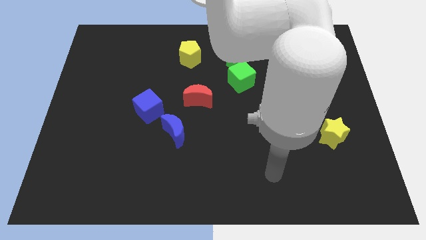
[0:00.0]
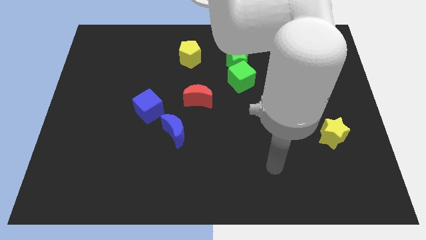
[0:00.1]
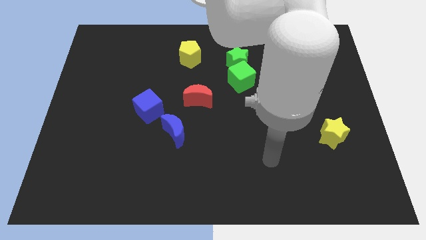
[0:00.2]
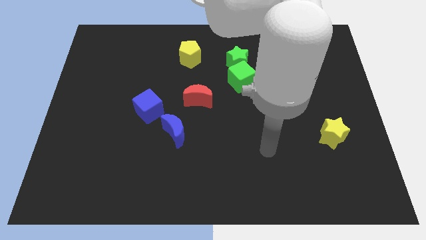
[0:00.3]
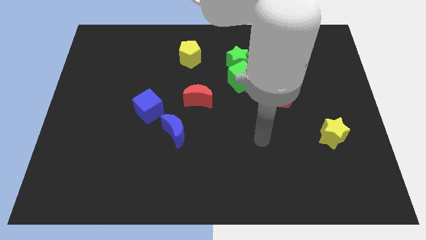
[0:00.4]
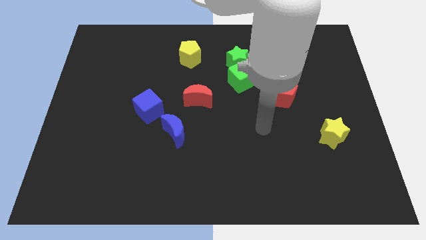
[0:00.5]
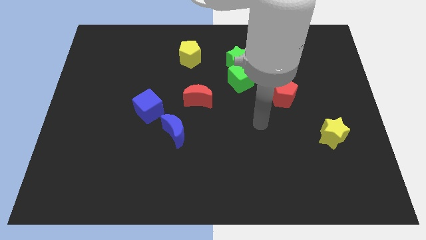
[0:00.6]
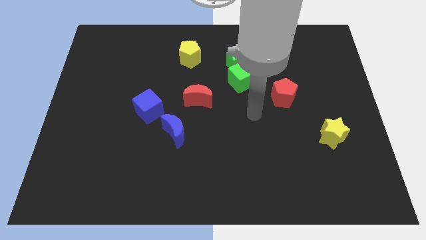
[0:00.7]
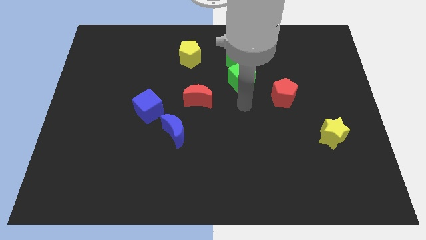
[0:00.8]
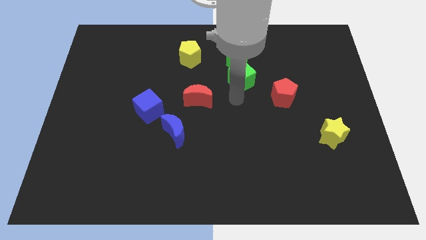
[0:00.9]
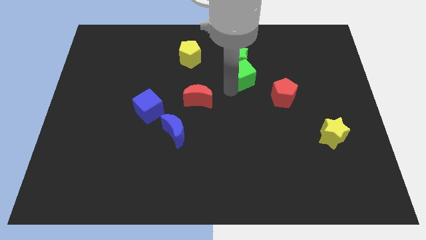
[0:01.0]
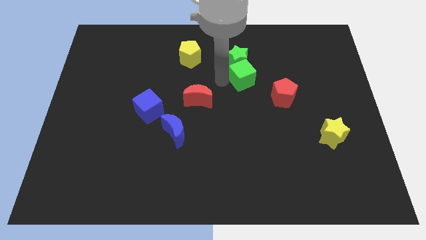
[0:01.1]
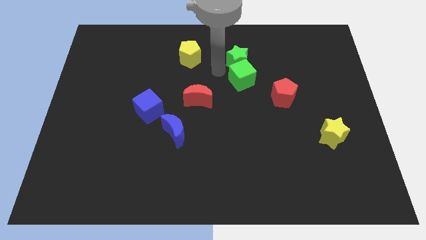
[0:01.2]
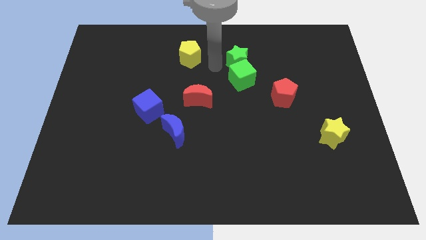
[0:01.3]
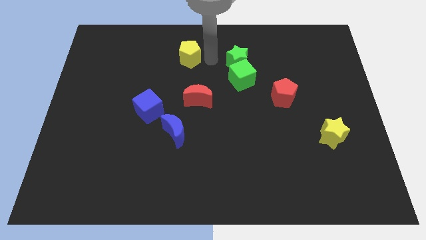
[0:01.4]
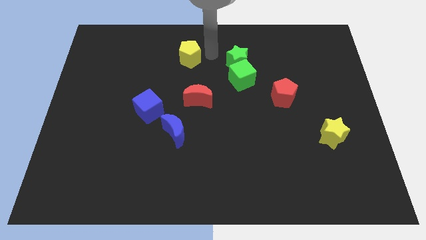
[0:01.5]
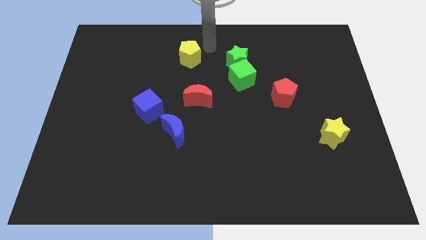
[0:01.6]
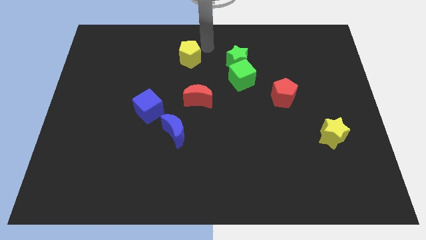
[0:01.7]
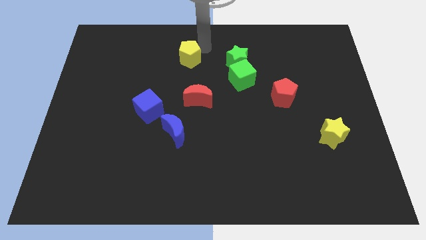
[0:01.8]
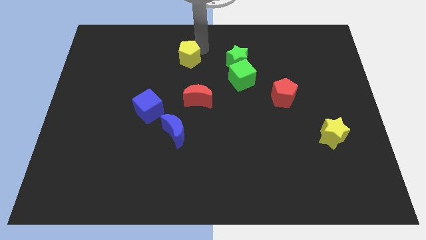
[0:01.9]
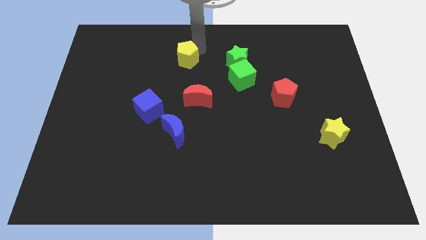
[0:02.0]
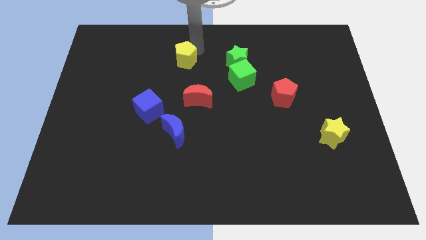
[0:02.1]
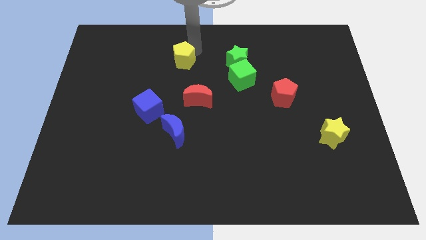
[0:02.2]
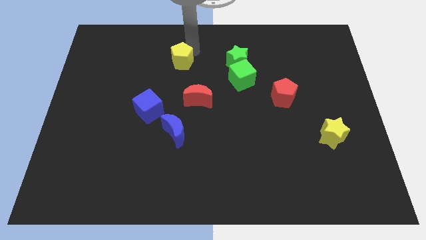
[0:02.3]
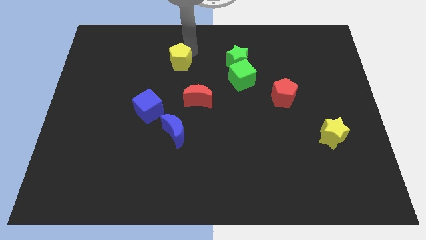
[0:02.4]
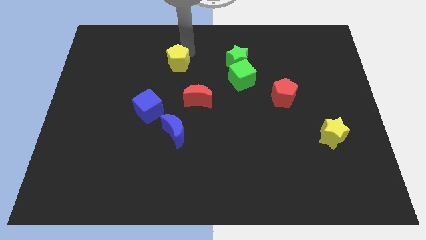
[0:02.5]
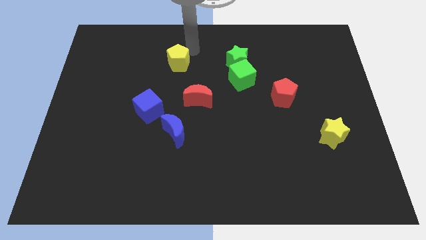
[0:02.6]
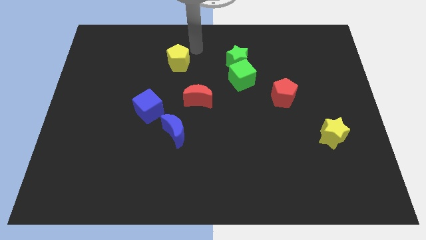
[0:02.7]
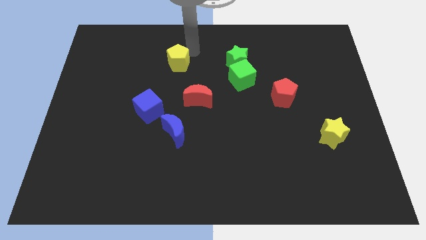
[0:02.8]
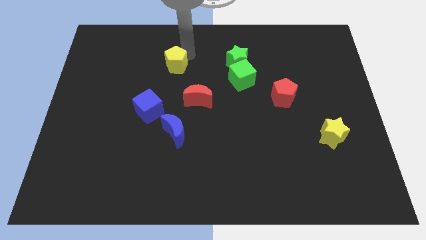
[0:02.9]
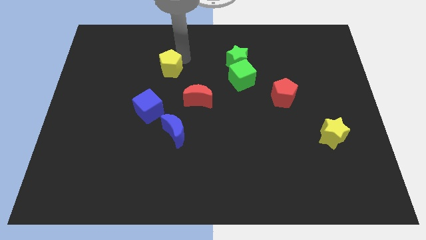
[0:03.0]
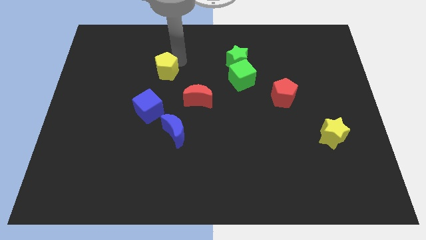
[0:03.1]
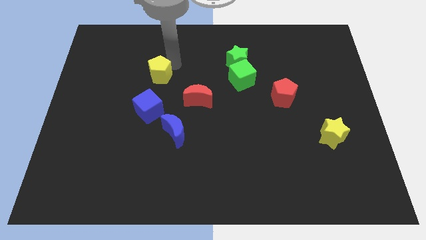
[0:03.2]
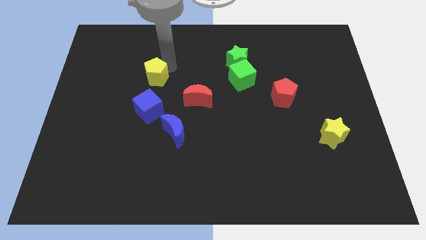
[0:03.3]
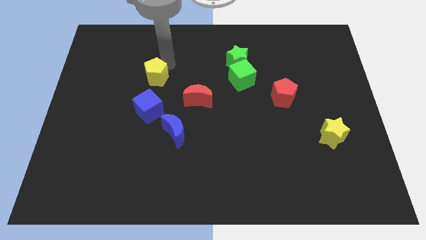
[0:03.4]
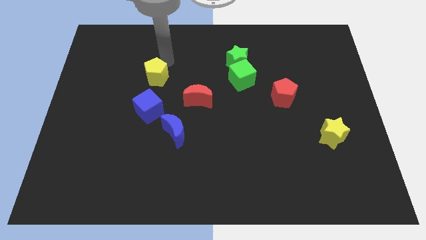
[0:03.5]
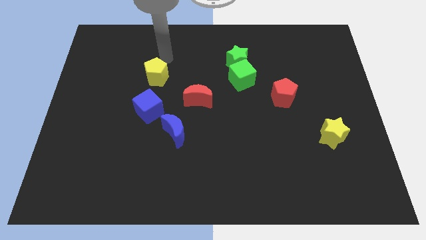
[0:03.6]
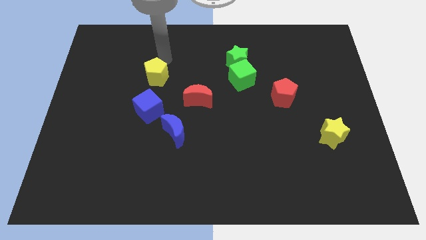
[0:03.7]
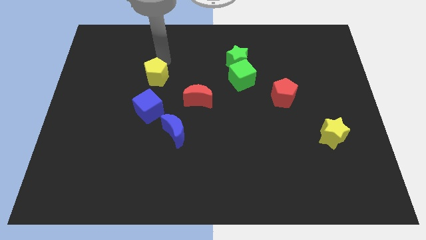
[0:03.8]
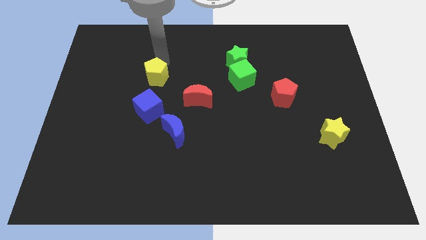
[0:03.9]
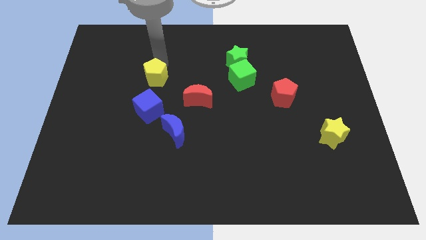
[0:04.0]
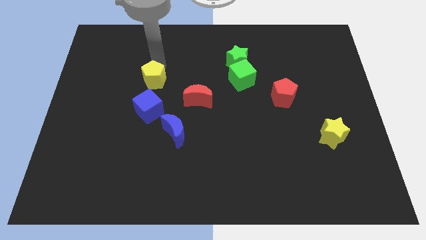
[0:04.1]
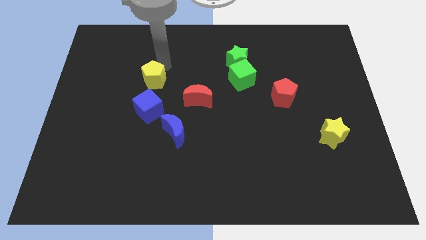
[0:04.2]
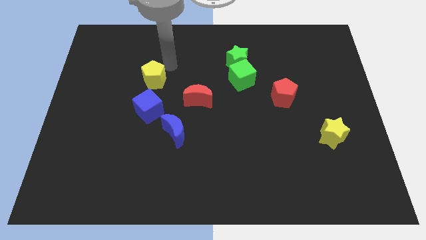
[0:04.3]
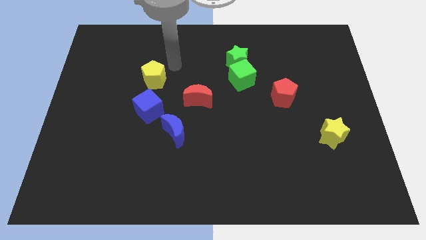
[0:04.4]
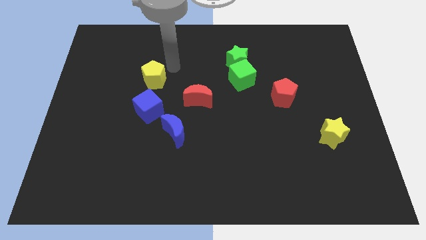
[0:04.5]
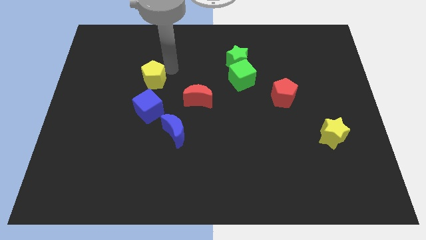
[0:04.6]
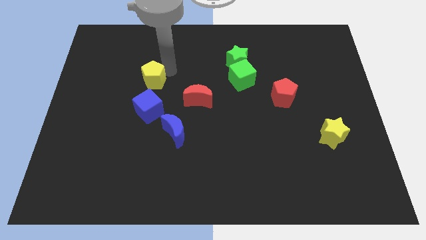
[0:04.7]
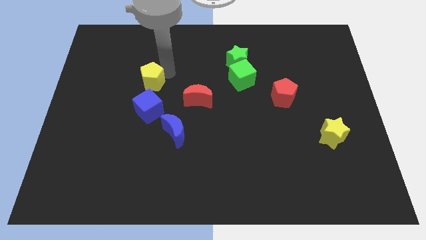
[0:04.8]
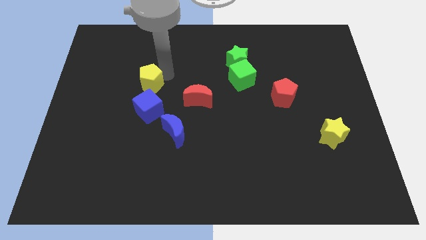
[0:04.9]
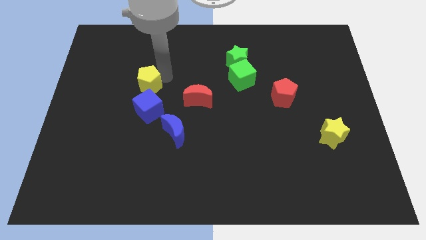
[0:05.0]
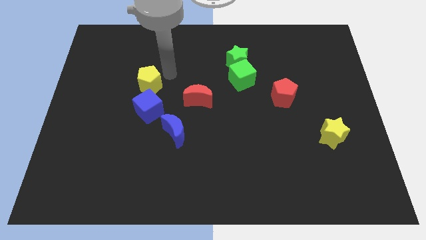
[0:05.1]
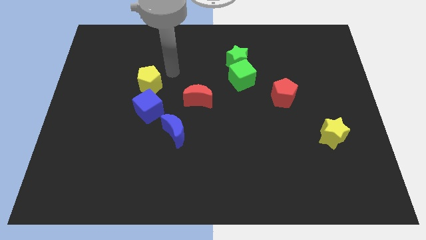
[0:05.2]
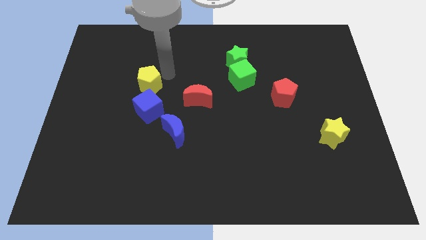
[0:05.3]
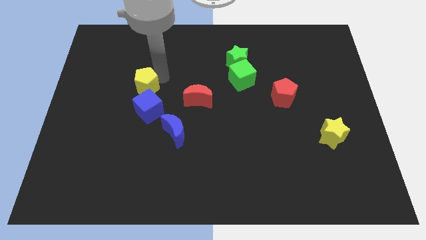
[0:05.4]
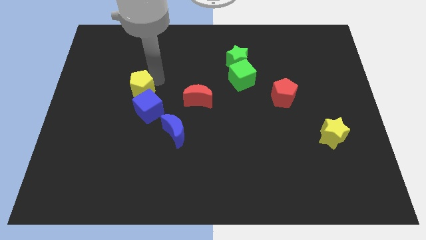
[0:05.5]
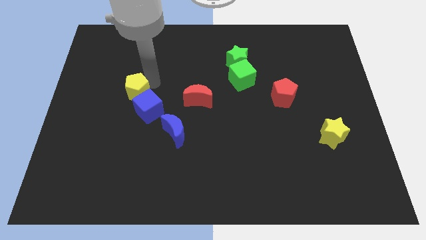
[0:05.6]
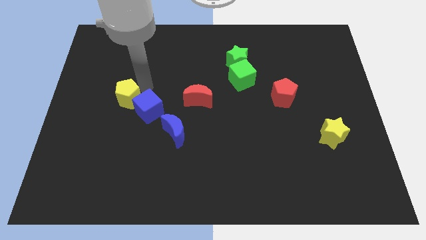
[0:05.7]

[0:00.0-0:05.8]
move the yellow pentagon downwards and left

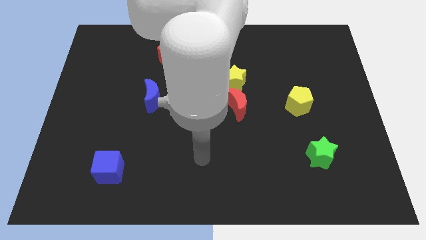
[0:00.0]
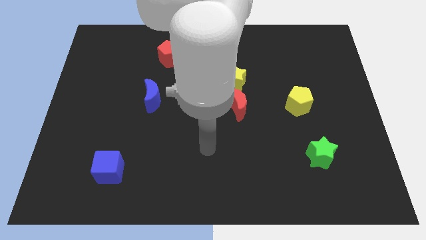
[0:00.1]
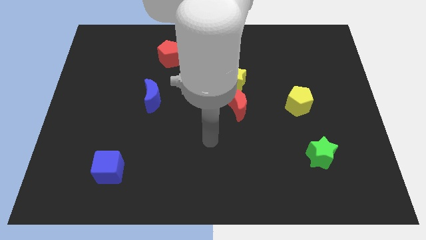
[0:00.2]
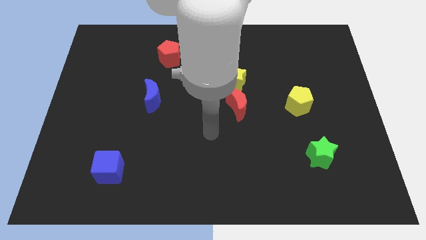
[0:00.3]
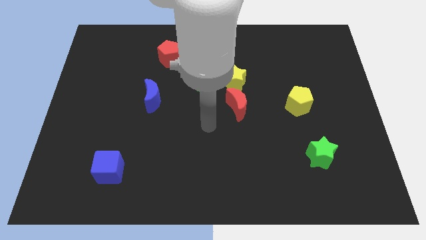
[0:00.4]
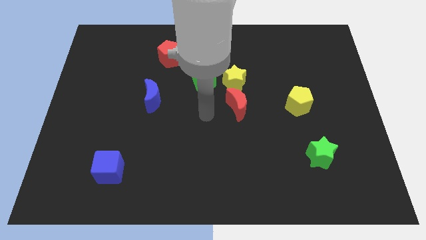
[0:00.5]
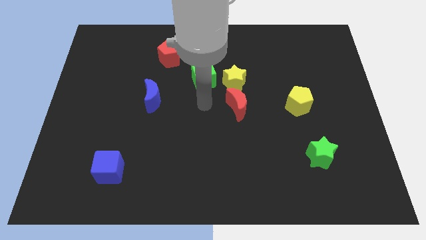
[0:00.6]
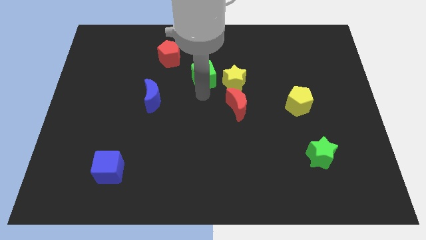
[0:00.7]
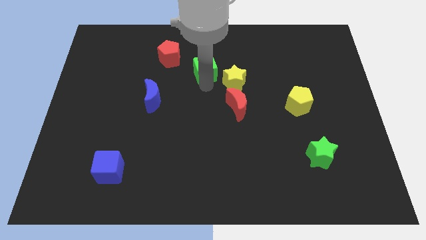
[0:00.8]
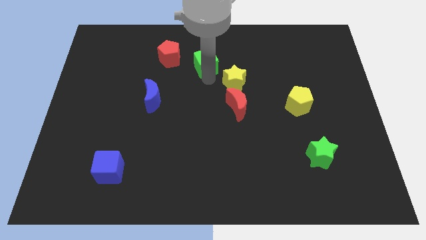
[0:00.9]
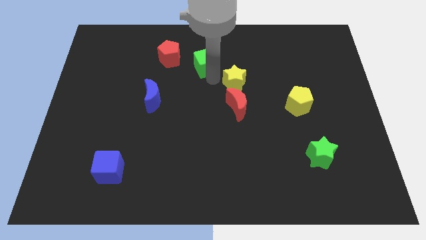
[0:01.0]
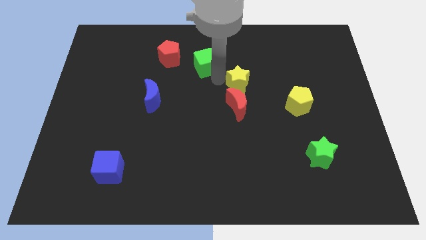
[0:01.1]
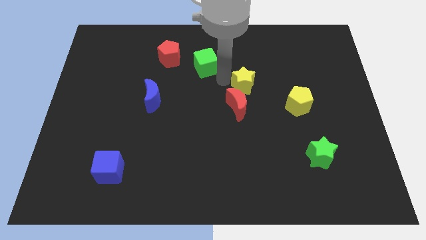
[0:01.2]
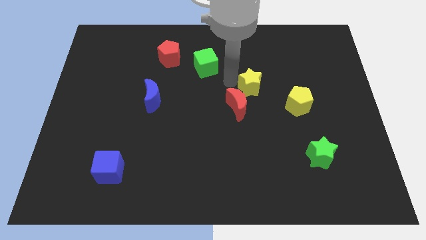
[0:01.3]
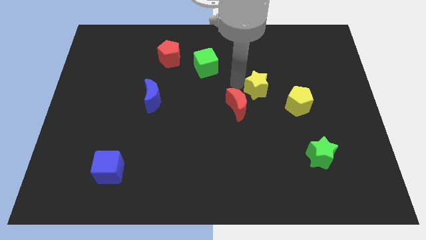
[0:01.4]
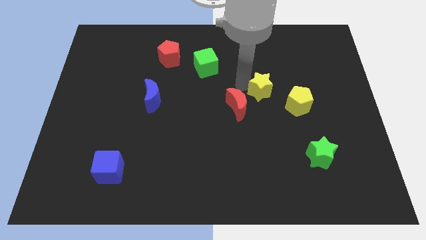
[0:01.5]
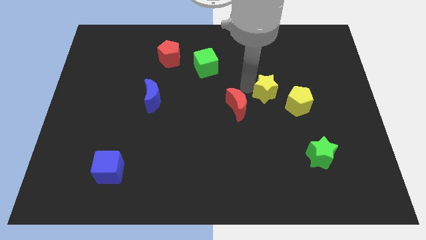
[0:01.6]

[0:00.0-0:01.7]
slide the yellow star slightly to the right

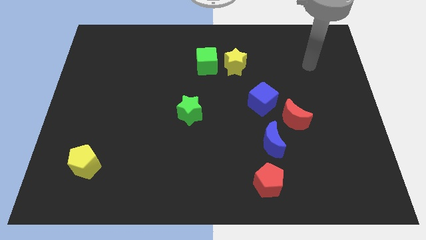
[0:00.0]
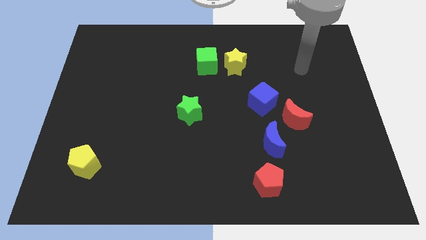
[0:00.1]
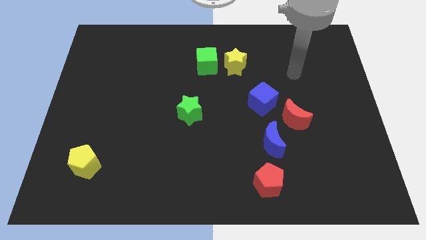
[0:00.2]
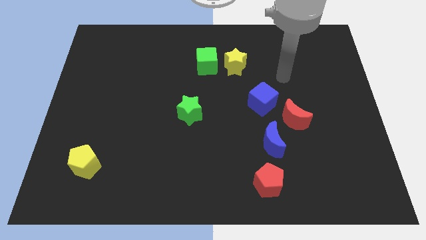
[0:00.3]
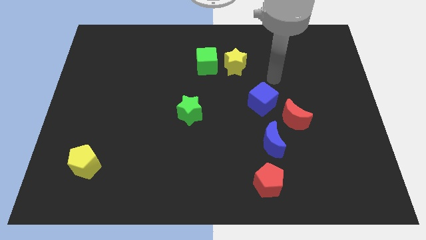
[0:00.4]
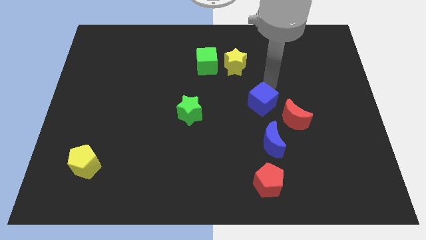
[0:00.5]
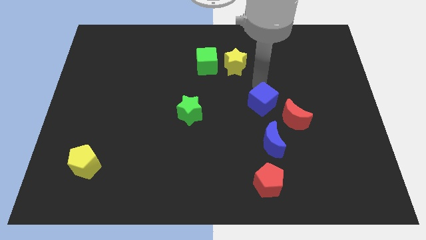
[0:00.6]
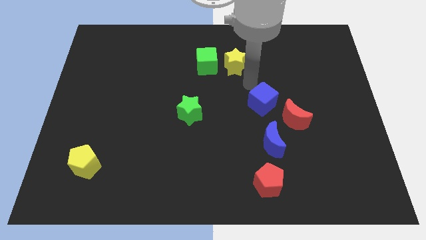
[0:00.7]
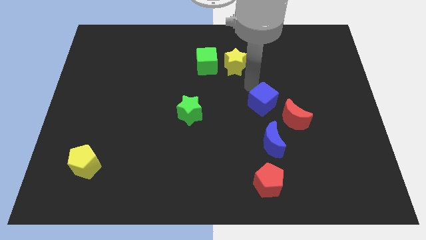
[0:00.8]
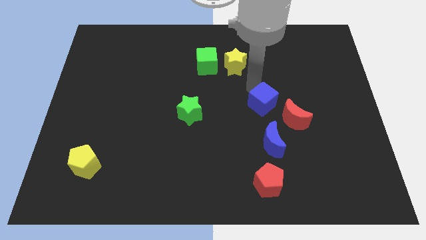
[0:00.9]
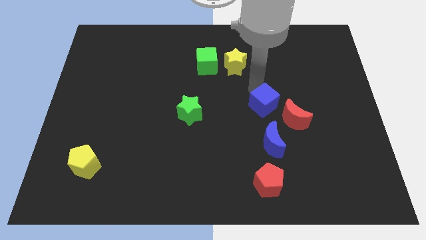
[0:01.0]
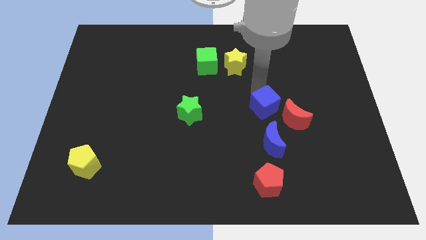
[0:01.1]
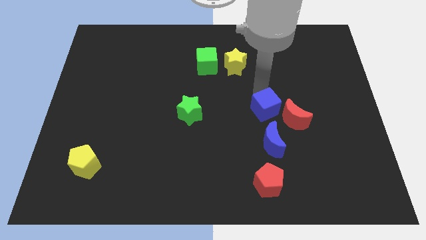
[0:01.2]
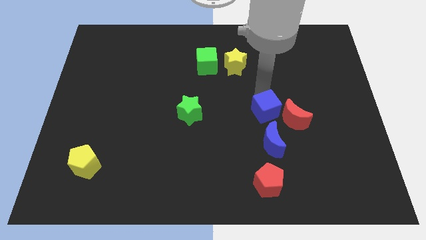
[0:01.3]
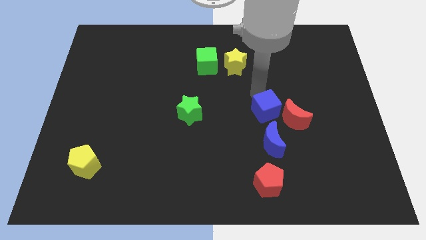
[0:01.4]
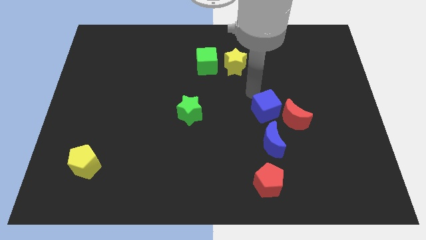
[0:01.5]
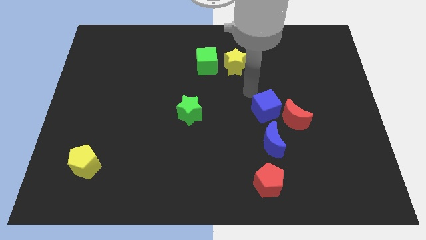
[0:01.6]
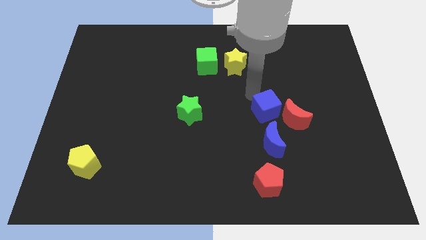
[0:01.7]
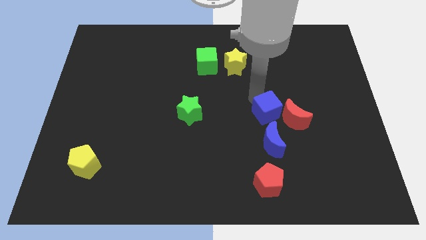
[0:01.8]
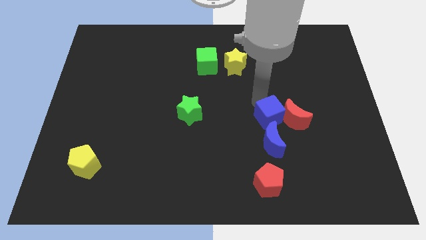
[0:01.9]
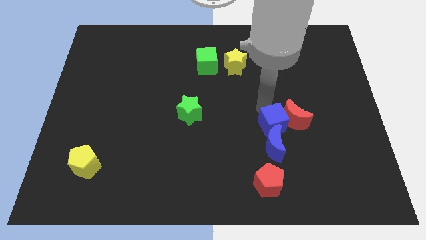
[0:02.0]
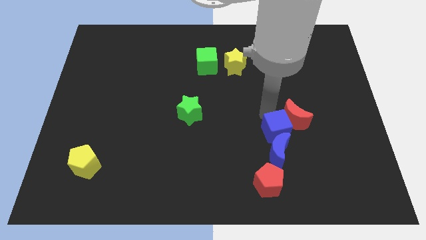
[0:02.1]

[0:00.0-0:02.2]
slightly push the blue cube diagonally downwards and right
